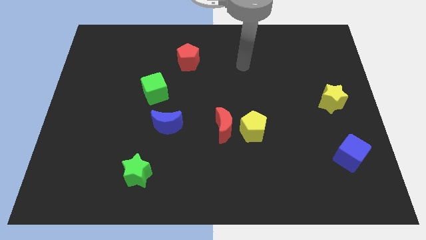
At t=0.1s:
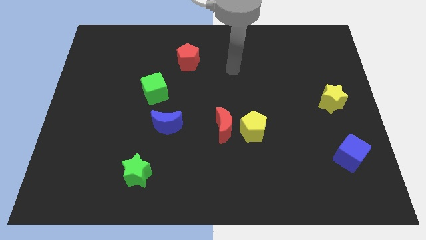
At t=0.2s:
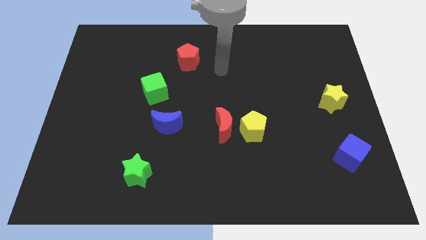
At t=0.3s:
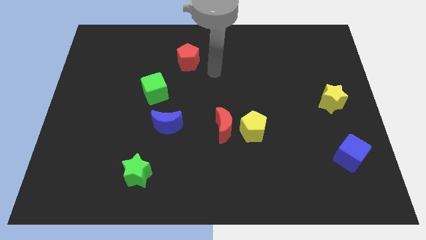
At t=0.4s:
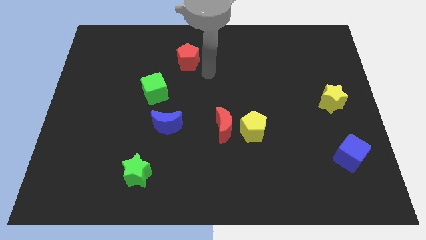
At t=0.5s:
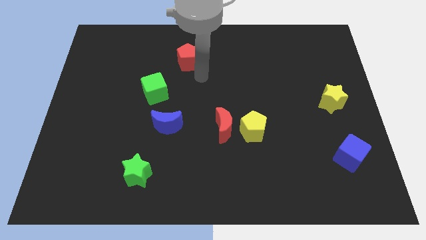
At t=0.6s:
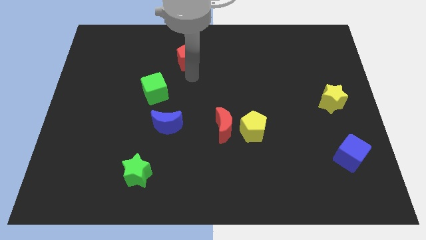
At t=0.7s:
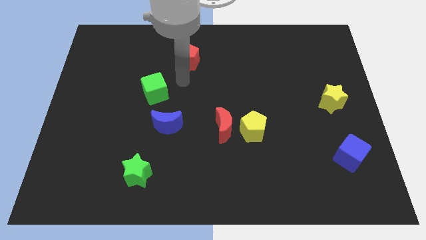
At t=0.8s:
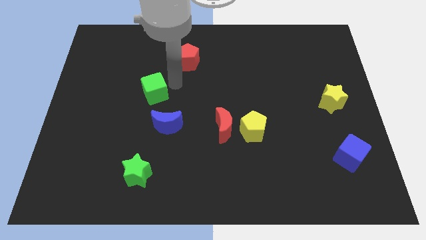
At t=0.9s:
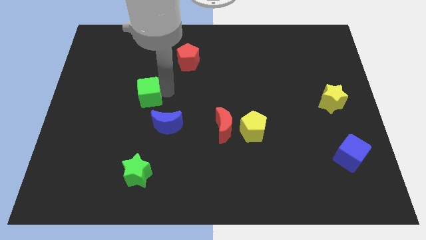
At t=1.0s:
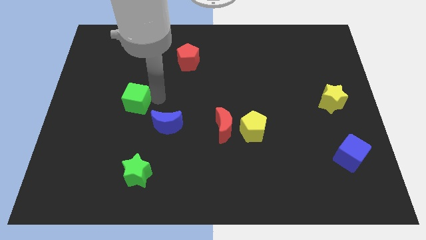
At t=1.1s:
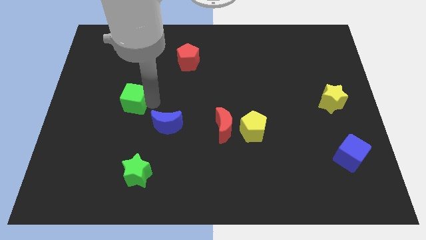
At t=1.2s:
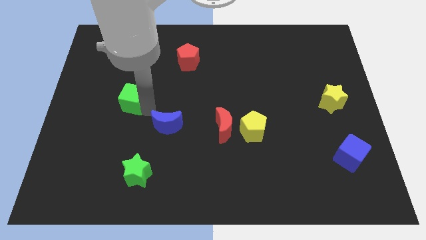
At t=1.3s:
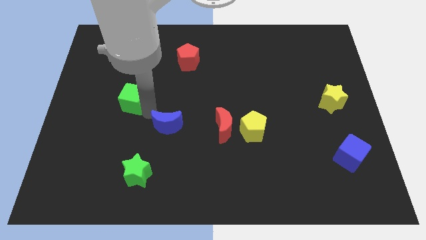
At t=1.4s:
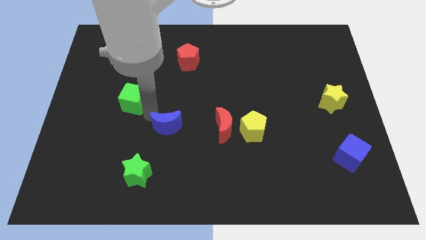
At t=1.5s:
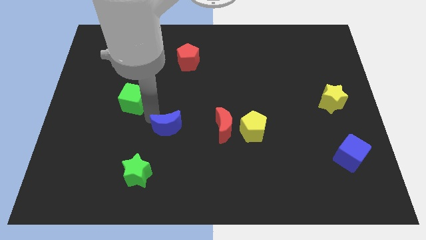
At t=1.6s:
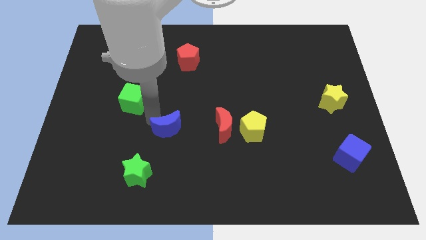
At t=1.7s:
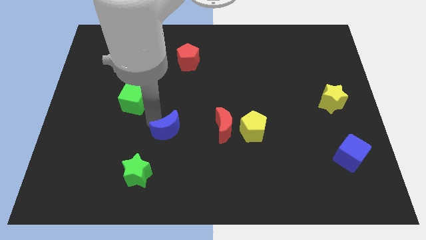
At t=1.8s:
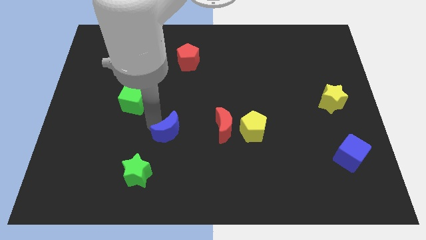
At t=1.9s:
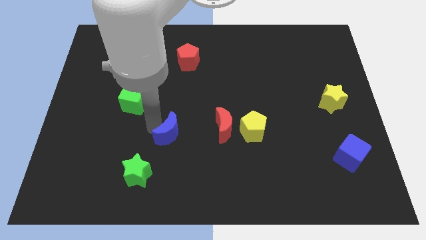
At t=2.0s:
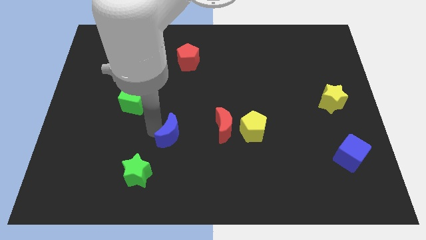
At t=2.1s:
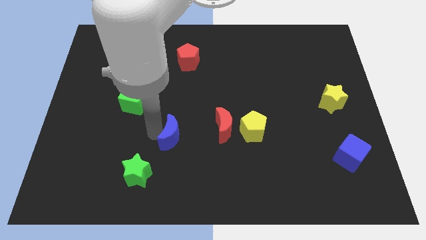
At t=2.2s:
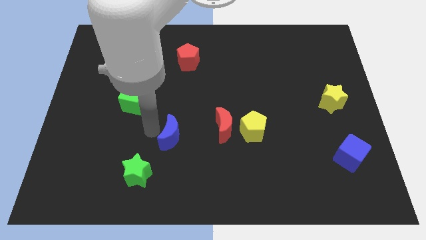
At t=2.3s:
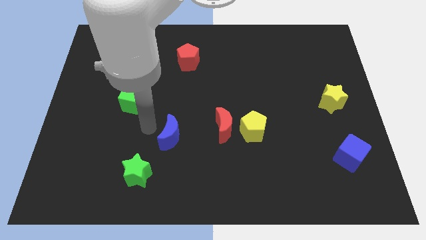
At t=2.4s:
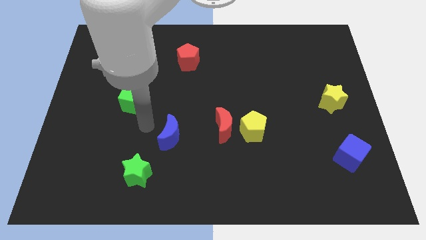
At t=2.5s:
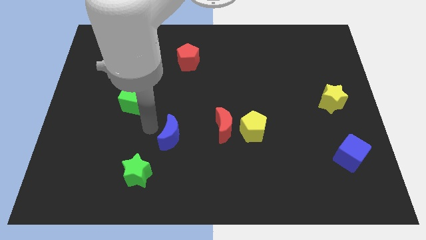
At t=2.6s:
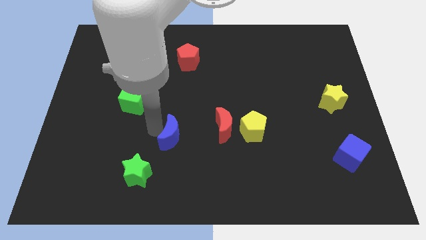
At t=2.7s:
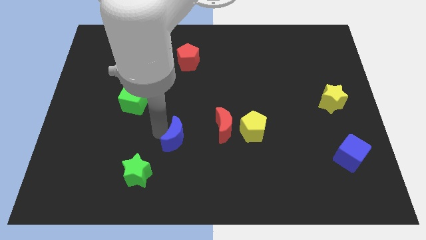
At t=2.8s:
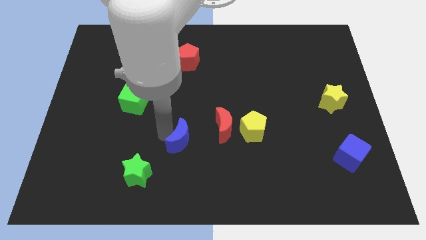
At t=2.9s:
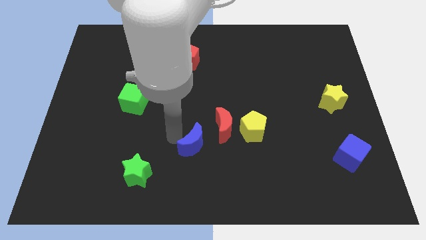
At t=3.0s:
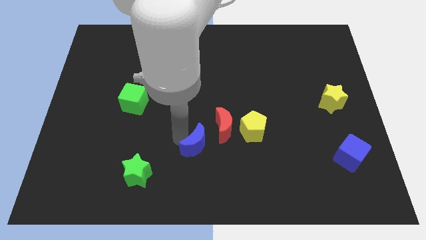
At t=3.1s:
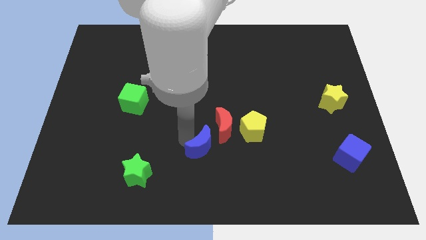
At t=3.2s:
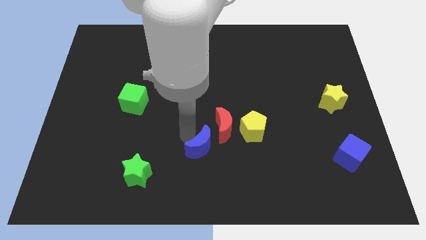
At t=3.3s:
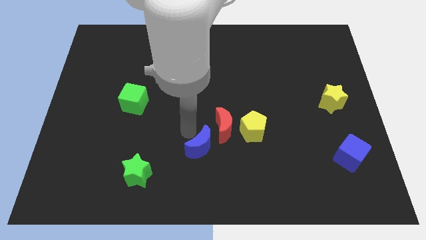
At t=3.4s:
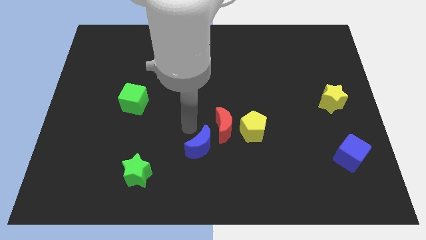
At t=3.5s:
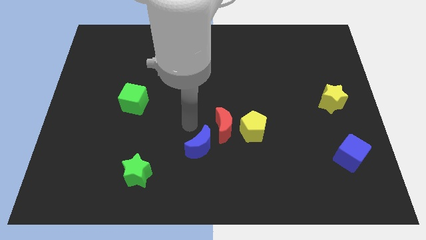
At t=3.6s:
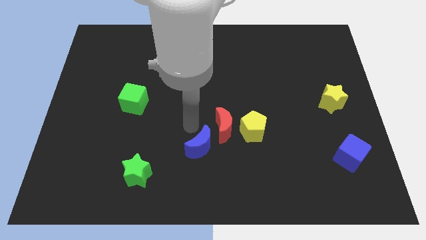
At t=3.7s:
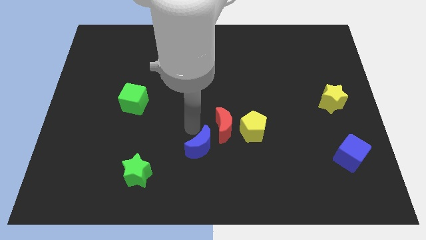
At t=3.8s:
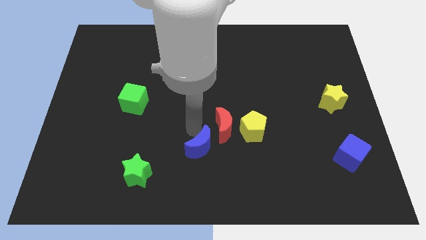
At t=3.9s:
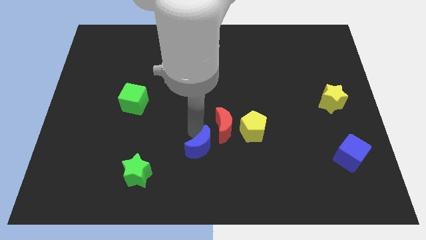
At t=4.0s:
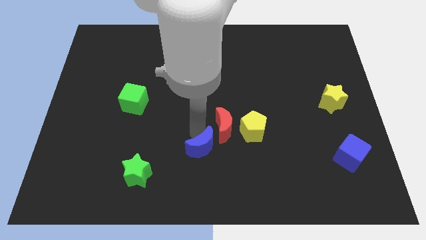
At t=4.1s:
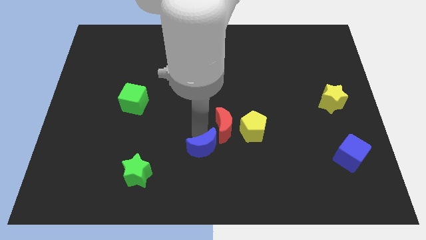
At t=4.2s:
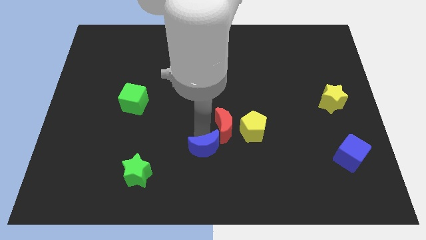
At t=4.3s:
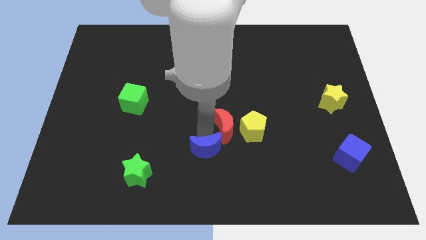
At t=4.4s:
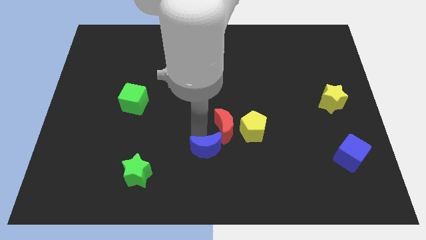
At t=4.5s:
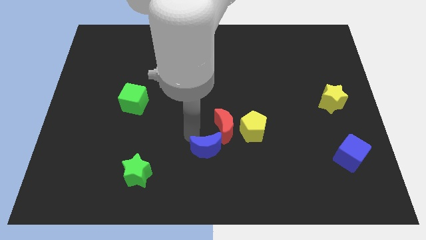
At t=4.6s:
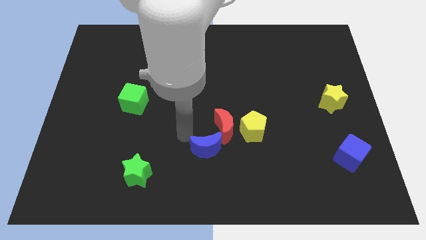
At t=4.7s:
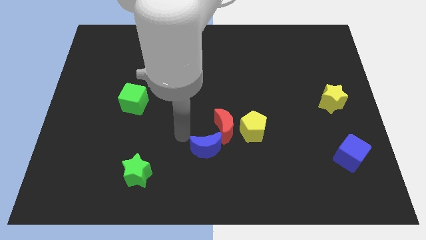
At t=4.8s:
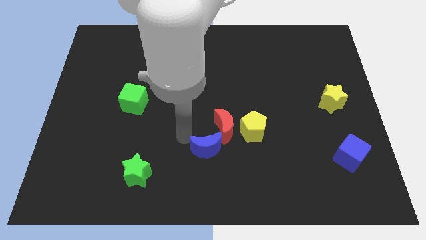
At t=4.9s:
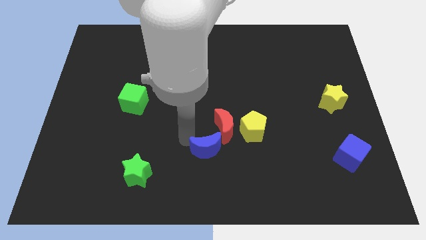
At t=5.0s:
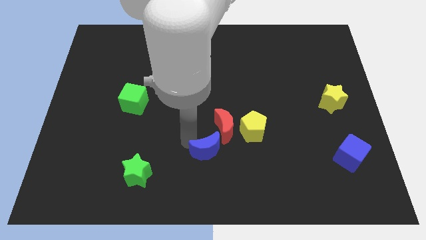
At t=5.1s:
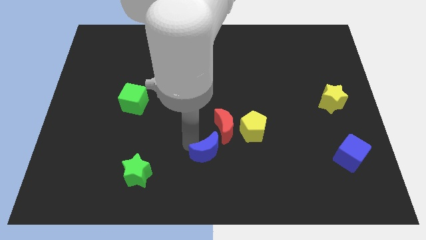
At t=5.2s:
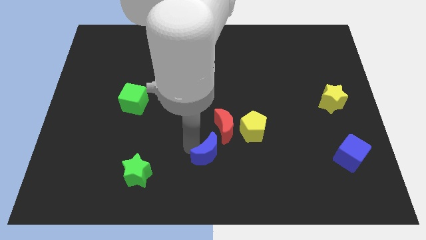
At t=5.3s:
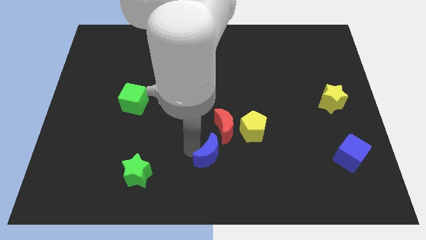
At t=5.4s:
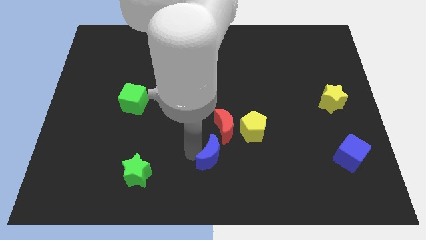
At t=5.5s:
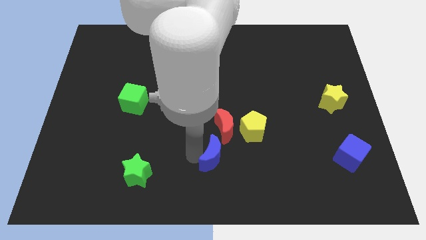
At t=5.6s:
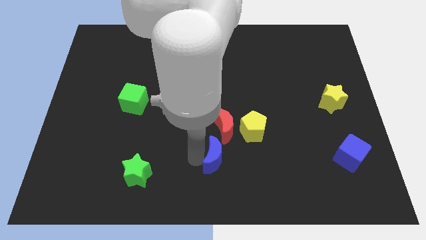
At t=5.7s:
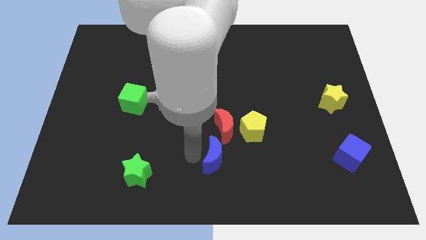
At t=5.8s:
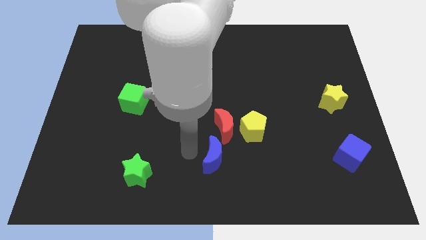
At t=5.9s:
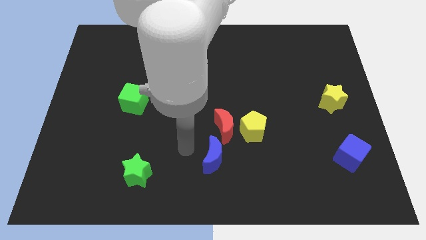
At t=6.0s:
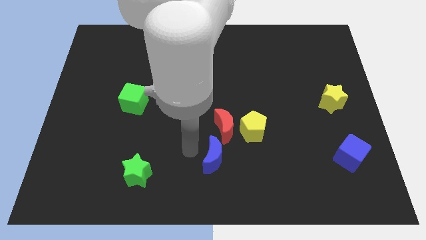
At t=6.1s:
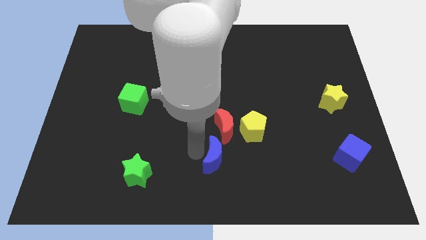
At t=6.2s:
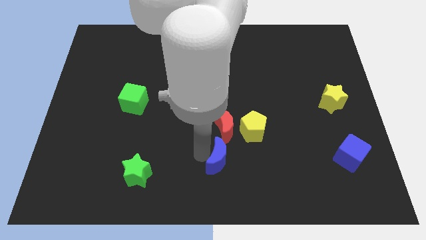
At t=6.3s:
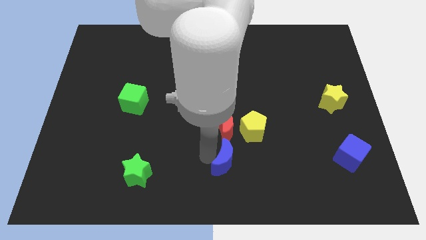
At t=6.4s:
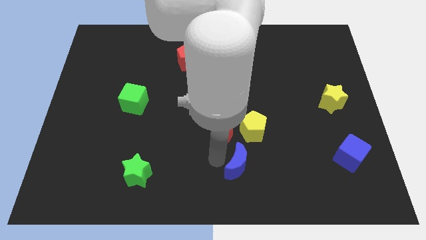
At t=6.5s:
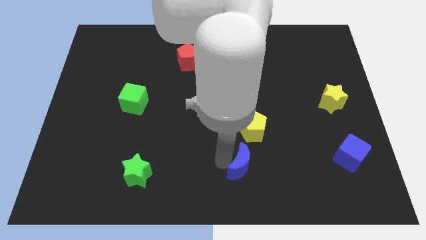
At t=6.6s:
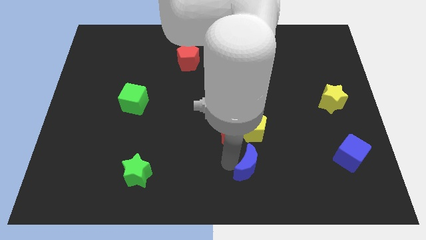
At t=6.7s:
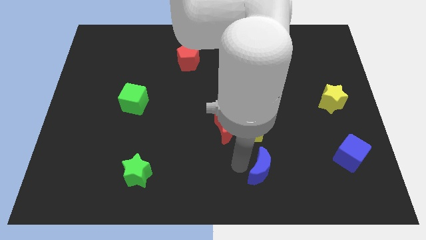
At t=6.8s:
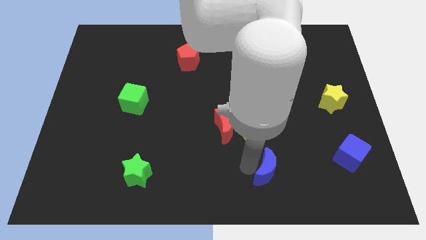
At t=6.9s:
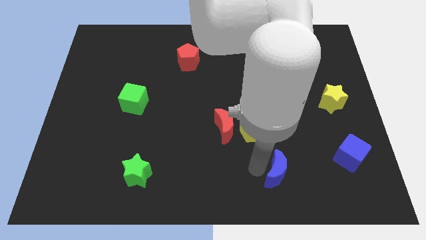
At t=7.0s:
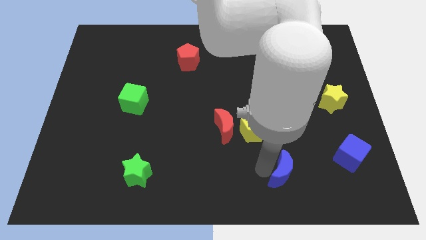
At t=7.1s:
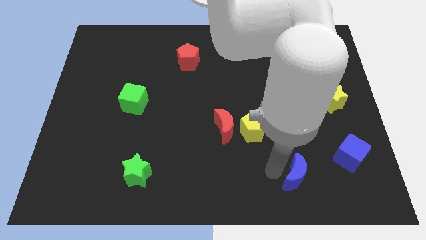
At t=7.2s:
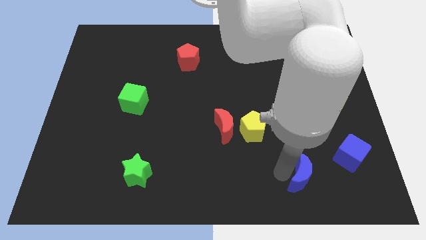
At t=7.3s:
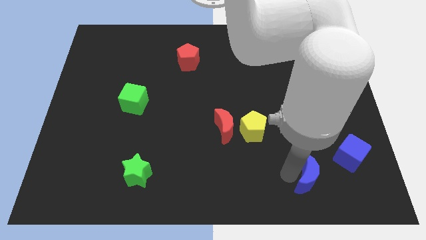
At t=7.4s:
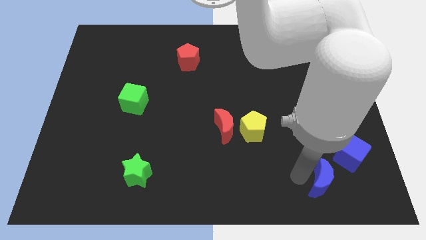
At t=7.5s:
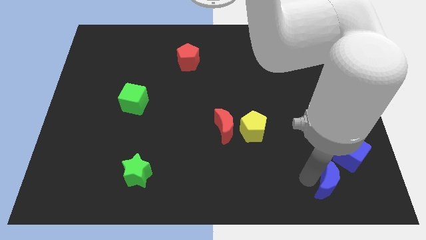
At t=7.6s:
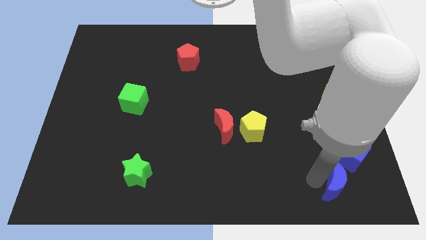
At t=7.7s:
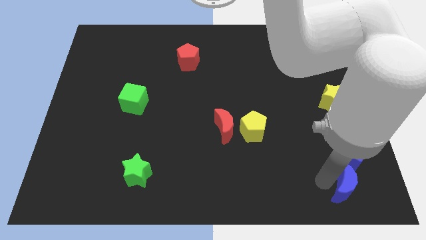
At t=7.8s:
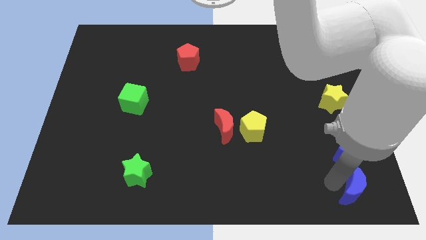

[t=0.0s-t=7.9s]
slide the blue moon to the bottom right corner
